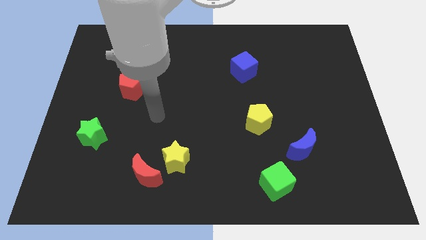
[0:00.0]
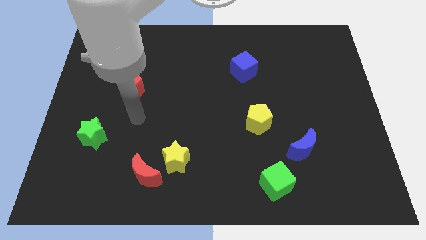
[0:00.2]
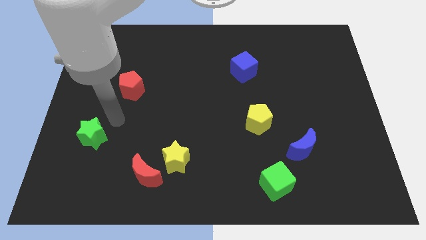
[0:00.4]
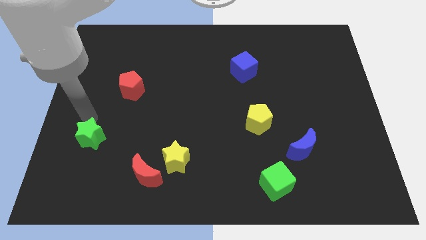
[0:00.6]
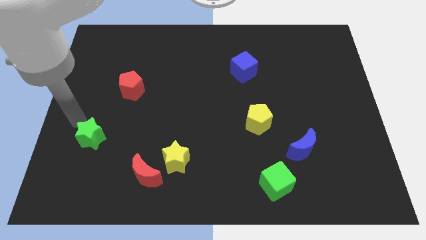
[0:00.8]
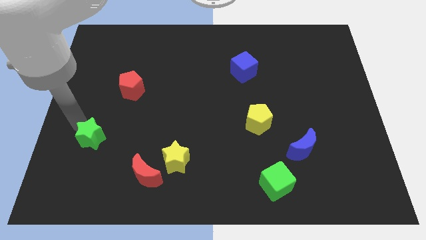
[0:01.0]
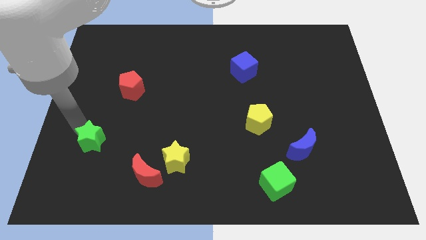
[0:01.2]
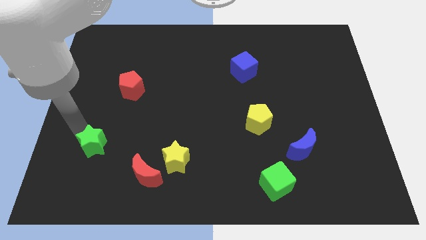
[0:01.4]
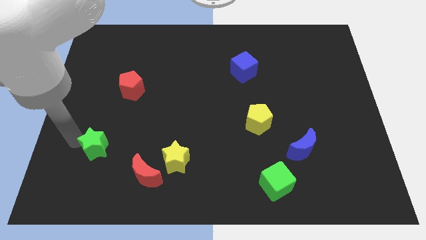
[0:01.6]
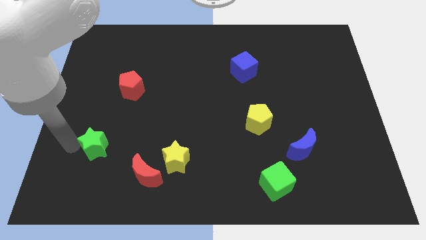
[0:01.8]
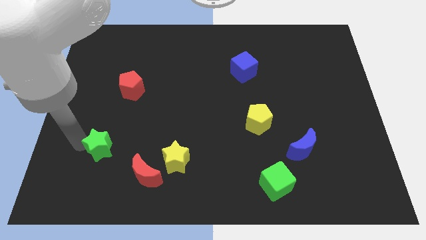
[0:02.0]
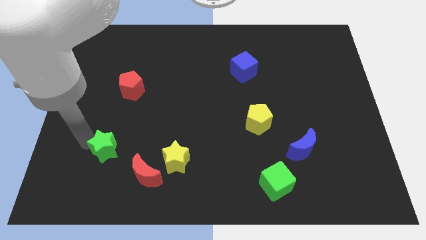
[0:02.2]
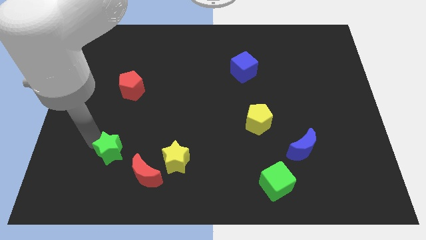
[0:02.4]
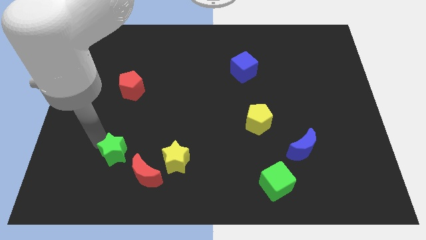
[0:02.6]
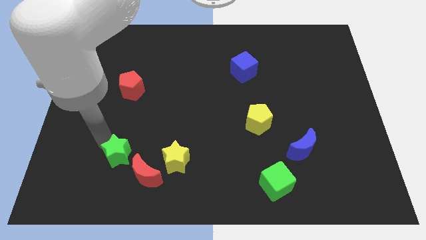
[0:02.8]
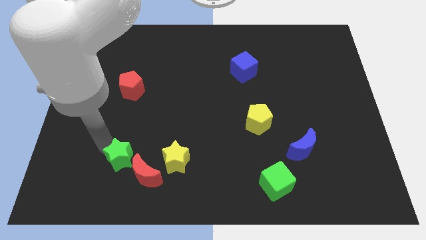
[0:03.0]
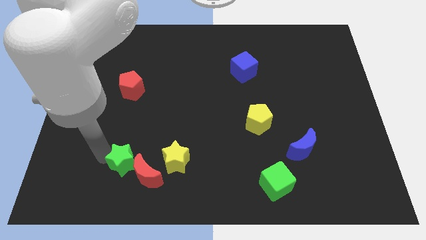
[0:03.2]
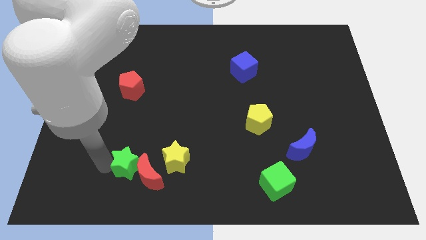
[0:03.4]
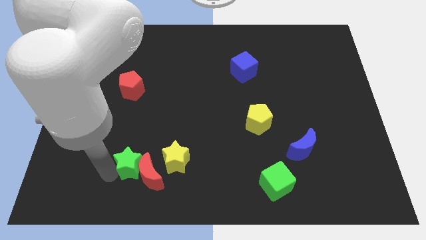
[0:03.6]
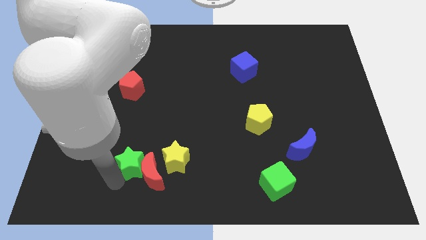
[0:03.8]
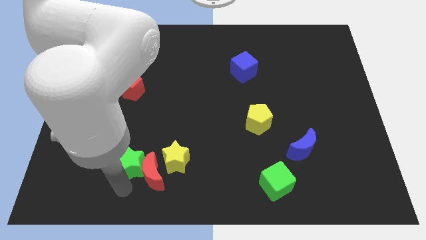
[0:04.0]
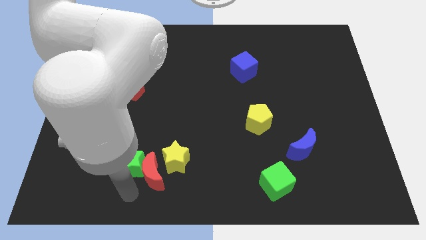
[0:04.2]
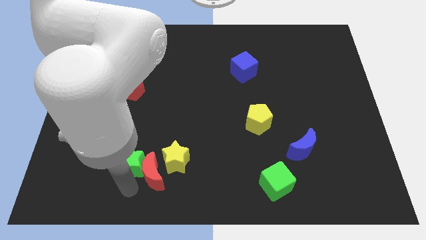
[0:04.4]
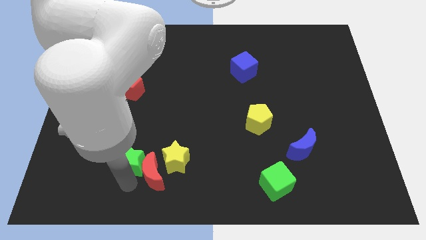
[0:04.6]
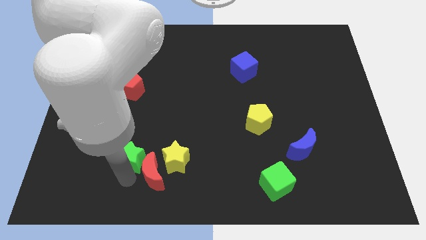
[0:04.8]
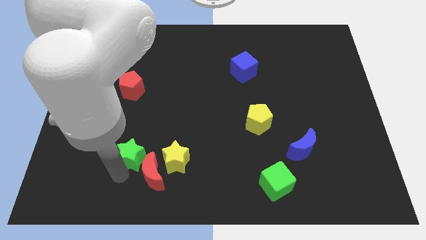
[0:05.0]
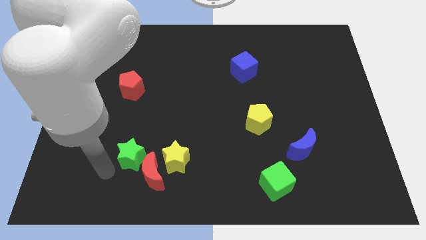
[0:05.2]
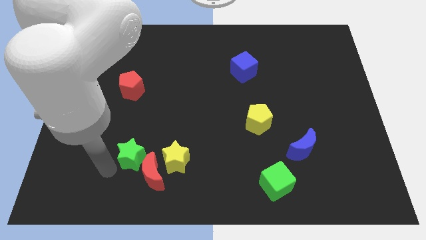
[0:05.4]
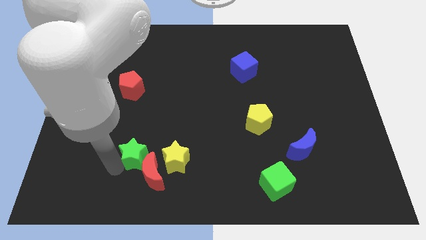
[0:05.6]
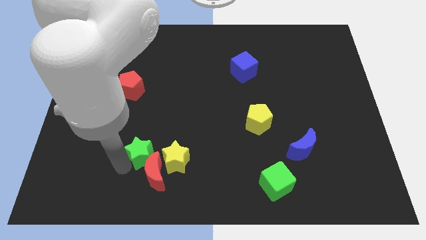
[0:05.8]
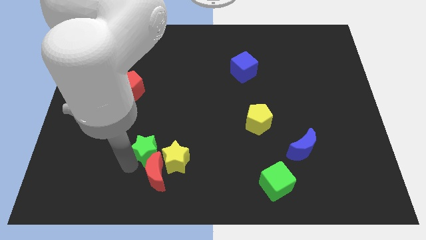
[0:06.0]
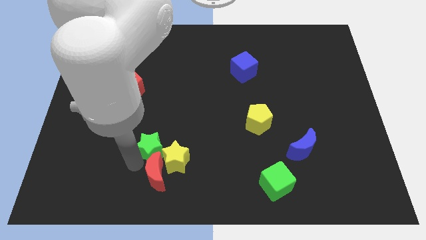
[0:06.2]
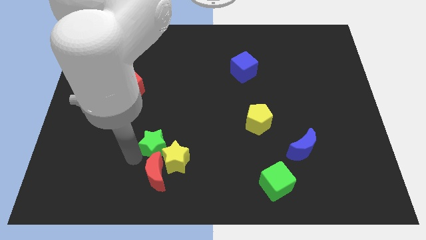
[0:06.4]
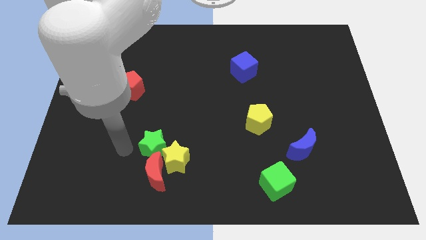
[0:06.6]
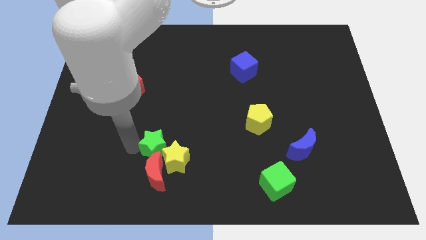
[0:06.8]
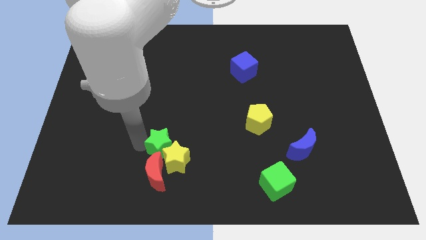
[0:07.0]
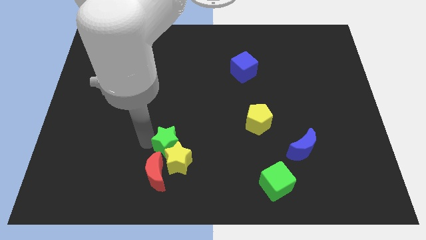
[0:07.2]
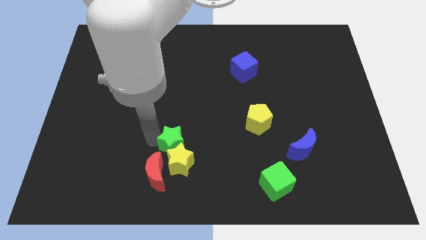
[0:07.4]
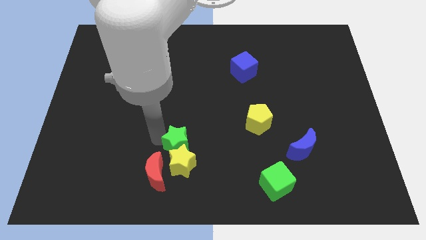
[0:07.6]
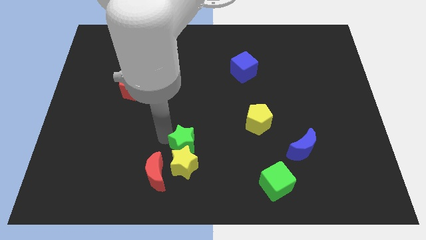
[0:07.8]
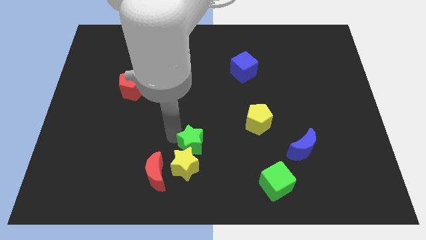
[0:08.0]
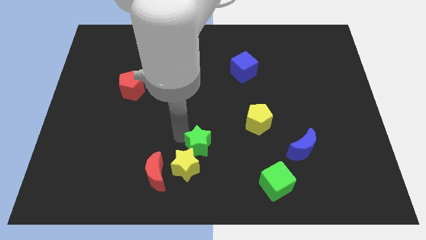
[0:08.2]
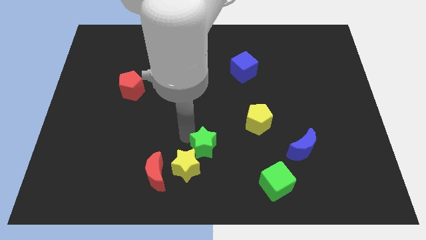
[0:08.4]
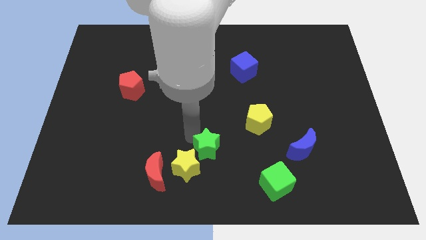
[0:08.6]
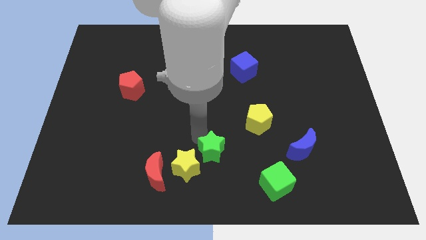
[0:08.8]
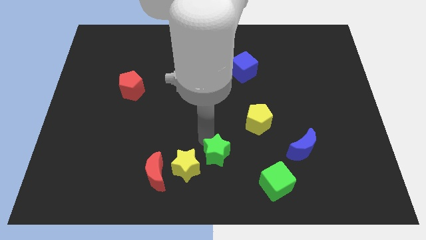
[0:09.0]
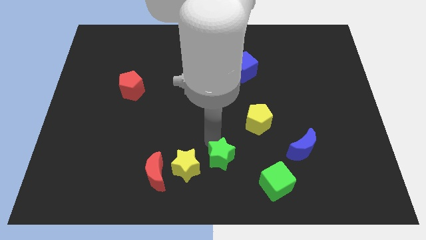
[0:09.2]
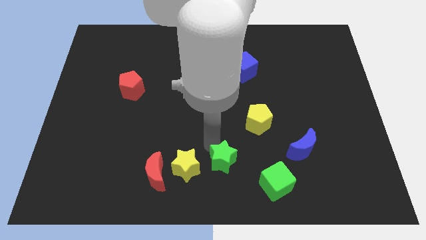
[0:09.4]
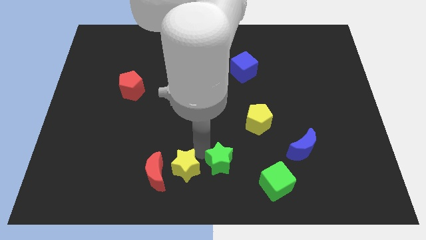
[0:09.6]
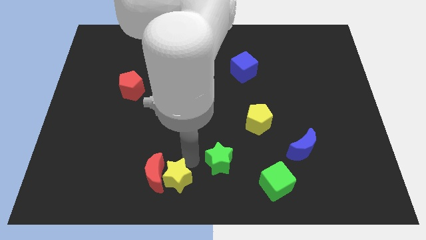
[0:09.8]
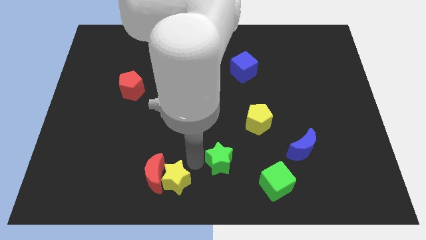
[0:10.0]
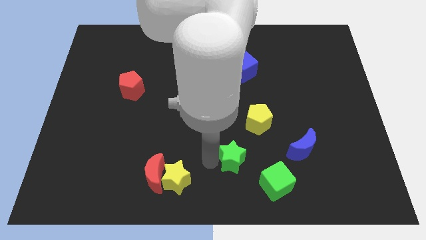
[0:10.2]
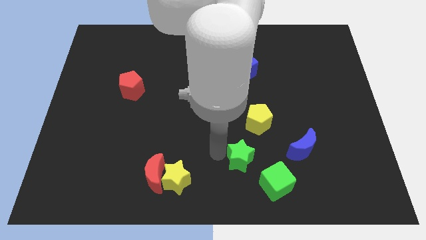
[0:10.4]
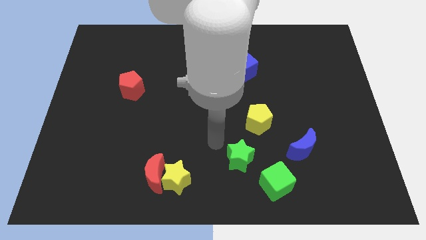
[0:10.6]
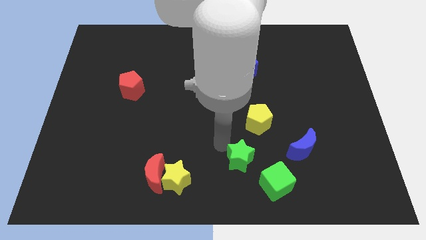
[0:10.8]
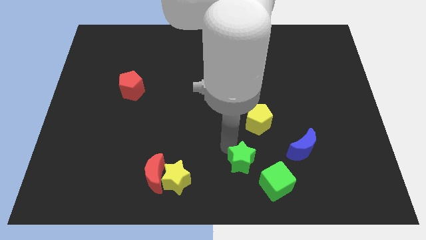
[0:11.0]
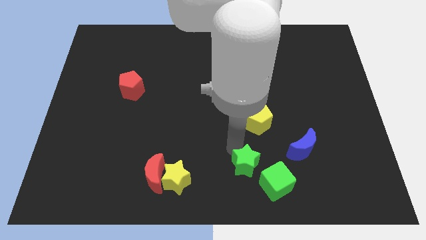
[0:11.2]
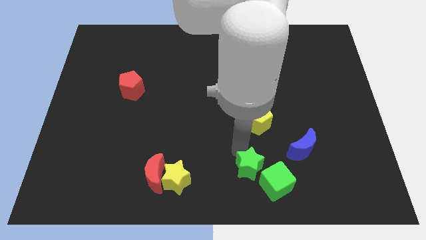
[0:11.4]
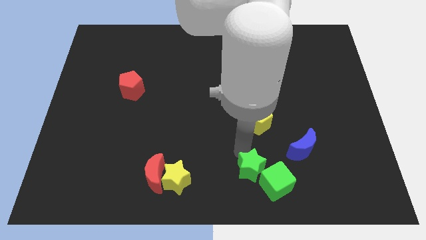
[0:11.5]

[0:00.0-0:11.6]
put the green star towards the green cube

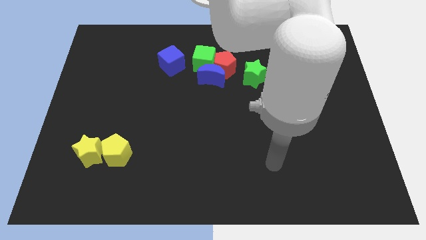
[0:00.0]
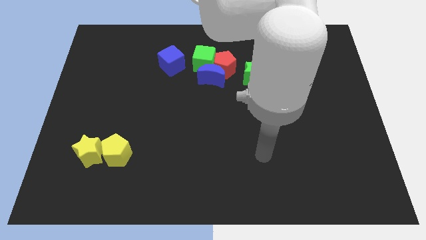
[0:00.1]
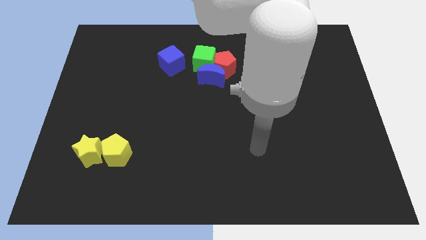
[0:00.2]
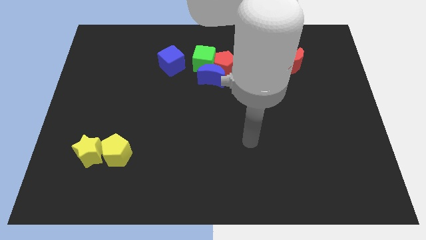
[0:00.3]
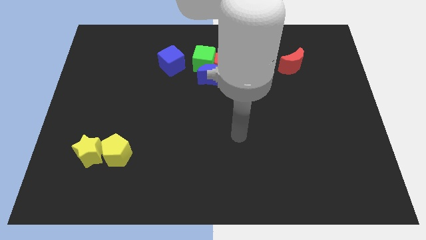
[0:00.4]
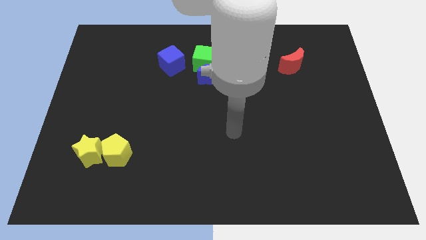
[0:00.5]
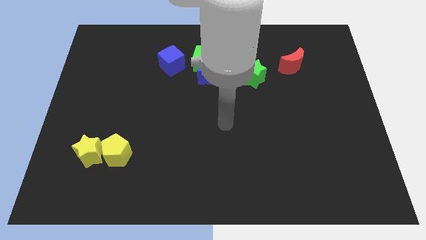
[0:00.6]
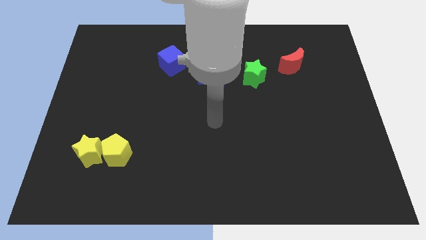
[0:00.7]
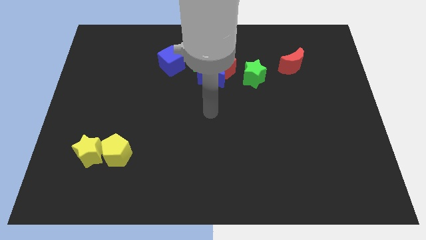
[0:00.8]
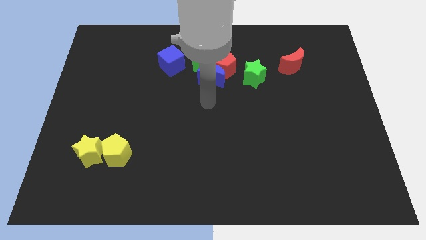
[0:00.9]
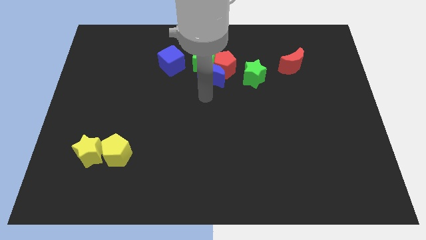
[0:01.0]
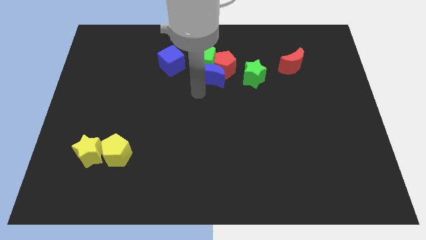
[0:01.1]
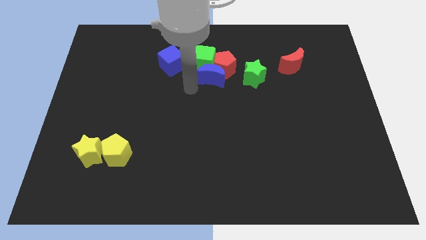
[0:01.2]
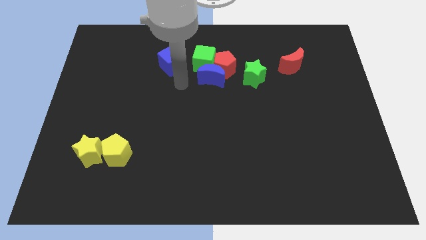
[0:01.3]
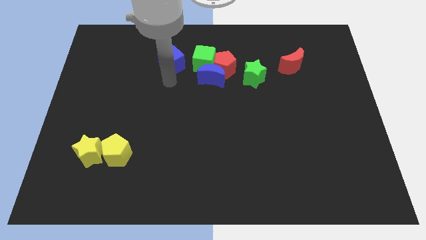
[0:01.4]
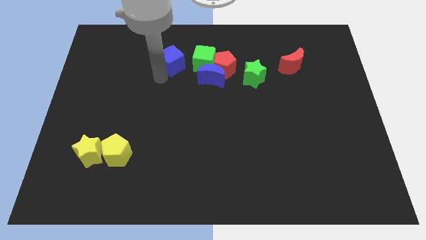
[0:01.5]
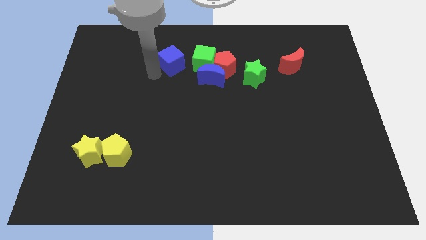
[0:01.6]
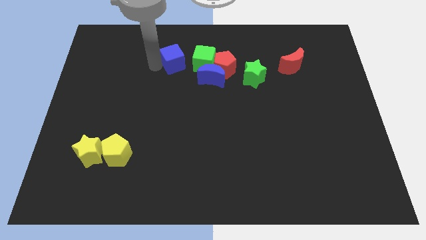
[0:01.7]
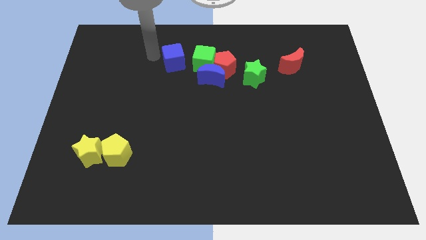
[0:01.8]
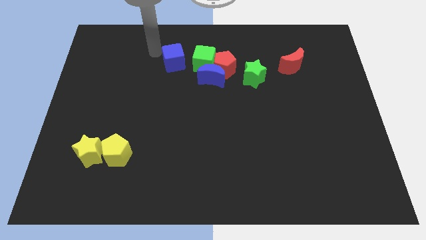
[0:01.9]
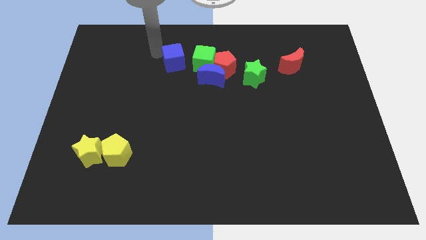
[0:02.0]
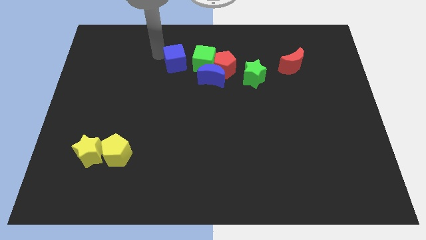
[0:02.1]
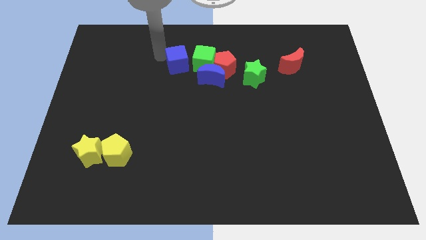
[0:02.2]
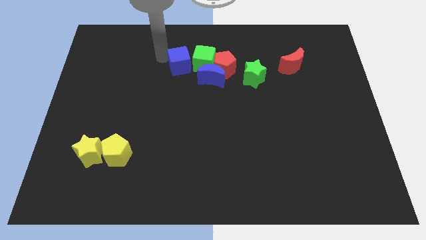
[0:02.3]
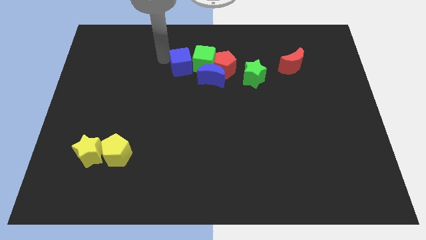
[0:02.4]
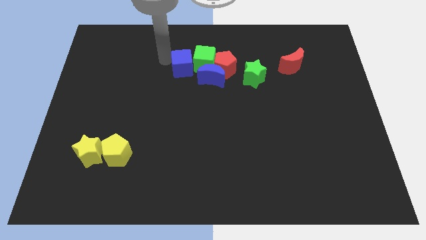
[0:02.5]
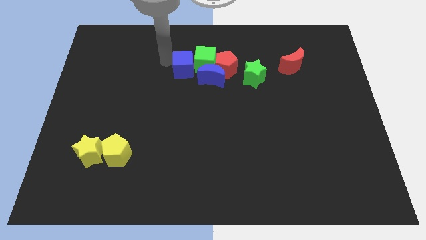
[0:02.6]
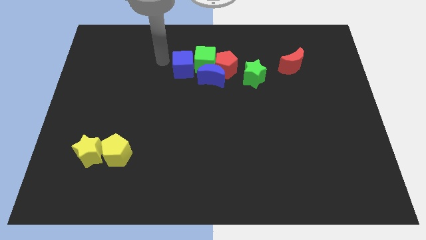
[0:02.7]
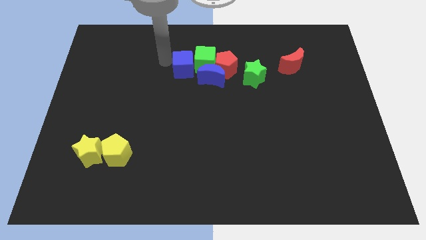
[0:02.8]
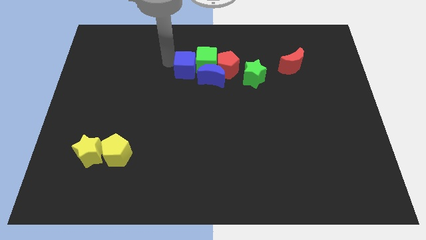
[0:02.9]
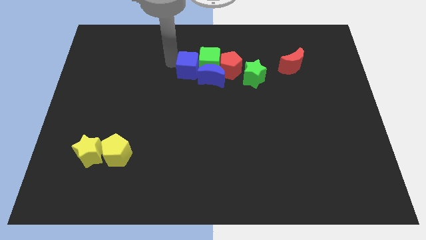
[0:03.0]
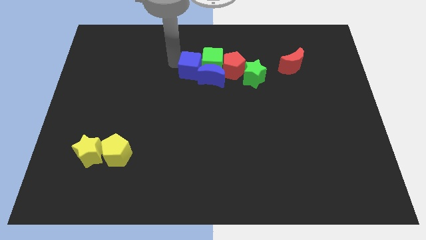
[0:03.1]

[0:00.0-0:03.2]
move the blue cube to the blue moon
